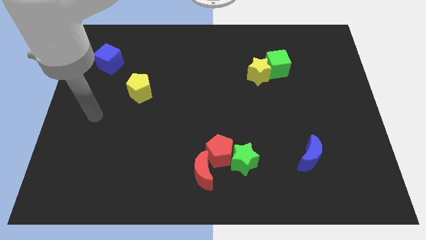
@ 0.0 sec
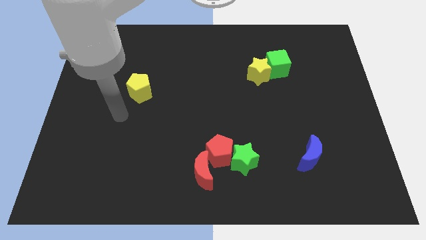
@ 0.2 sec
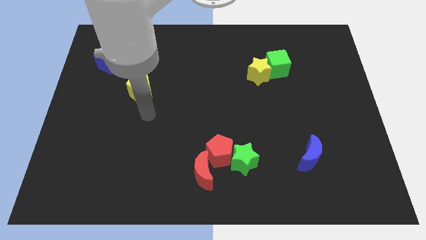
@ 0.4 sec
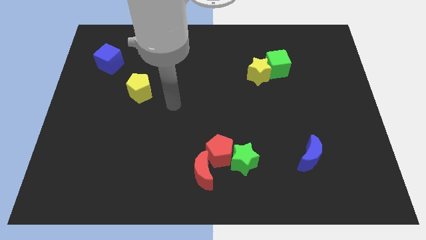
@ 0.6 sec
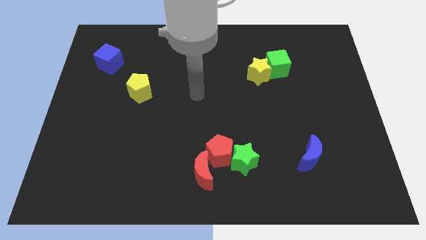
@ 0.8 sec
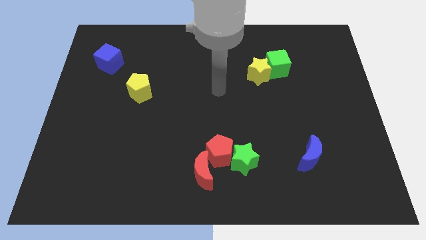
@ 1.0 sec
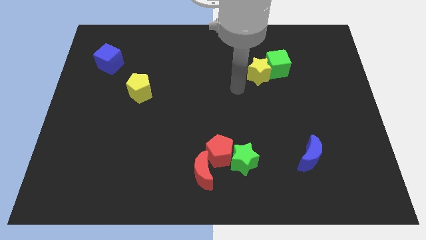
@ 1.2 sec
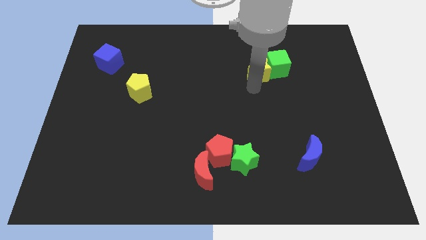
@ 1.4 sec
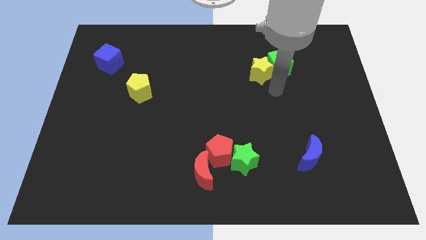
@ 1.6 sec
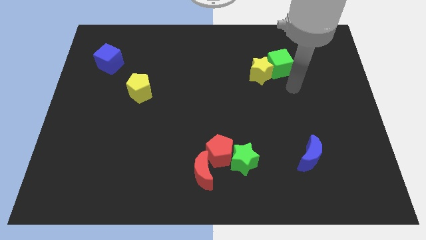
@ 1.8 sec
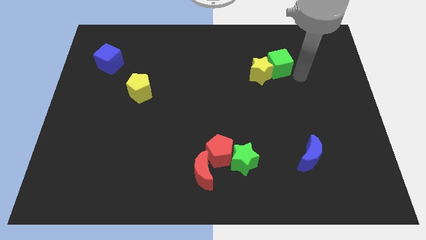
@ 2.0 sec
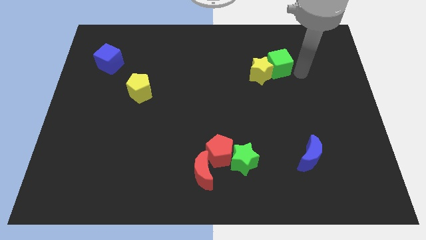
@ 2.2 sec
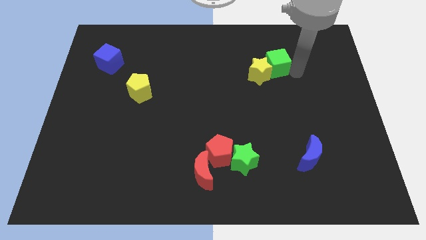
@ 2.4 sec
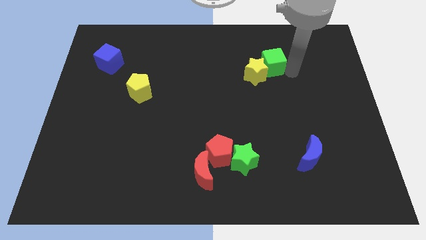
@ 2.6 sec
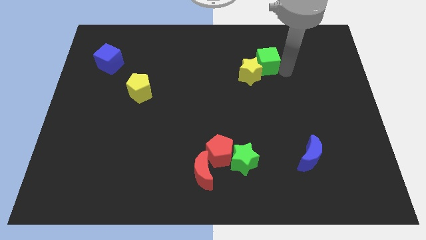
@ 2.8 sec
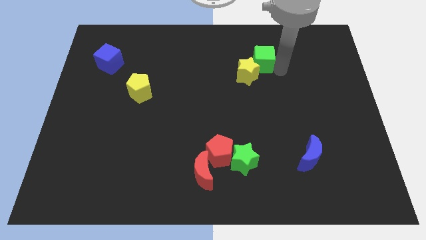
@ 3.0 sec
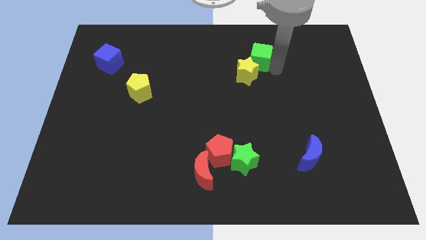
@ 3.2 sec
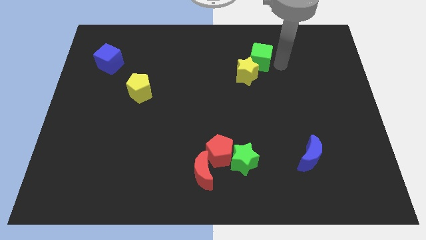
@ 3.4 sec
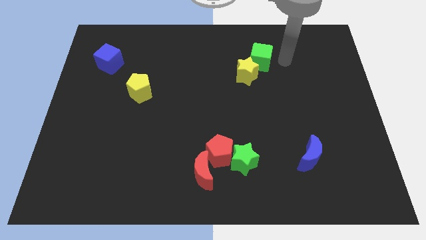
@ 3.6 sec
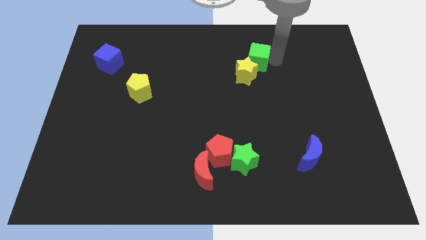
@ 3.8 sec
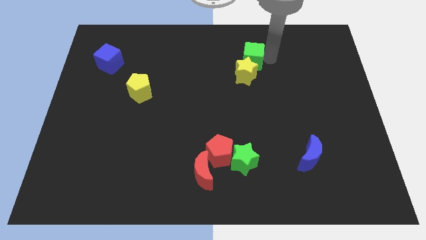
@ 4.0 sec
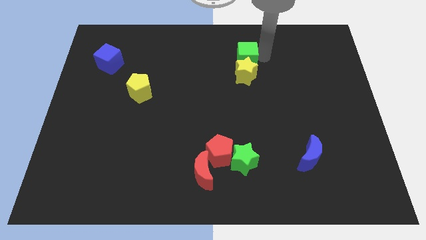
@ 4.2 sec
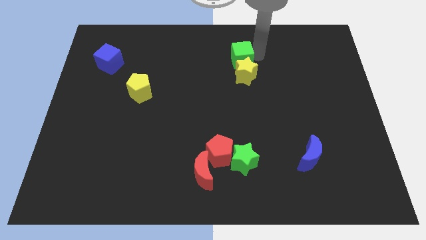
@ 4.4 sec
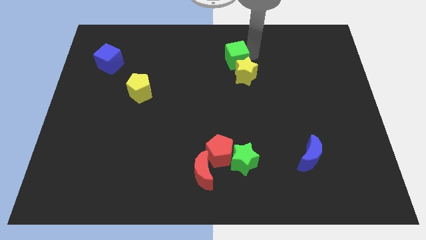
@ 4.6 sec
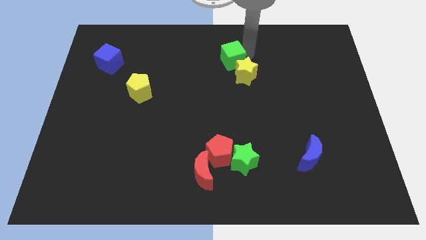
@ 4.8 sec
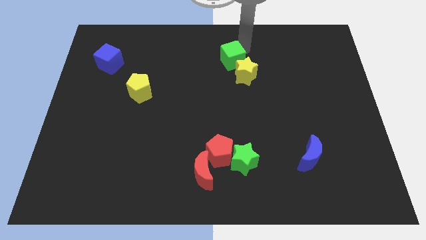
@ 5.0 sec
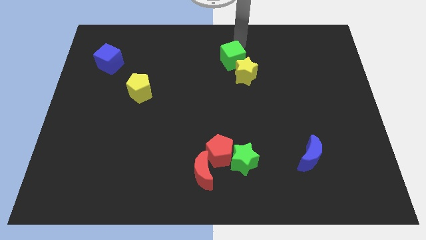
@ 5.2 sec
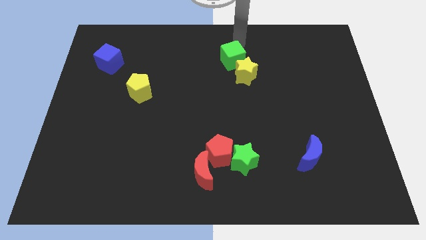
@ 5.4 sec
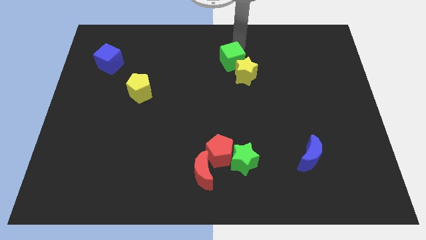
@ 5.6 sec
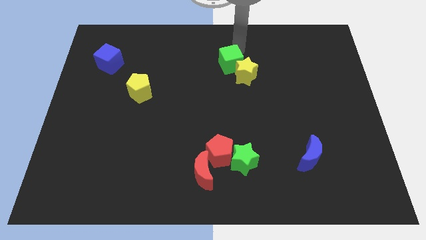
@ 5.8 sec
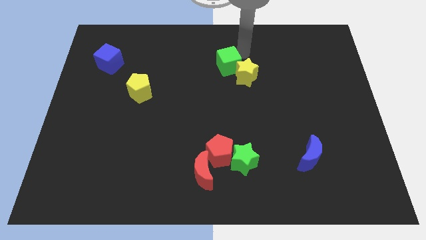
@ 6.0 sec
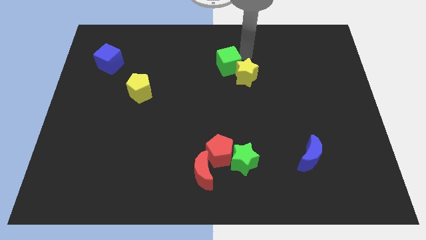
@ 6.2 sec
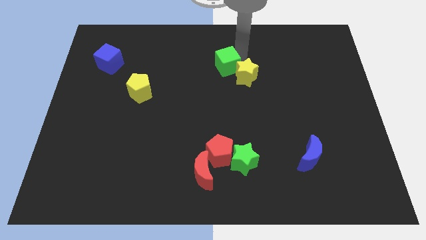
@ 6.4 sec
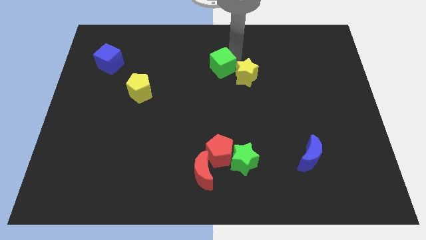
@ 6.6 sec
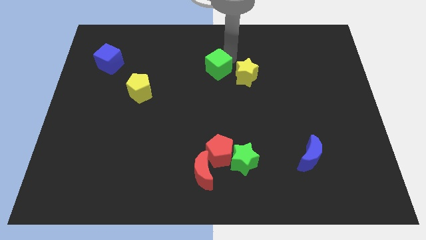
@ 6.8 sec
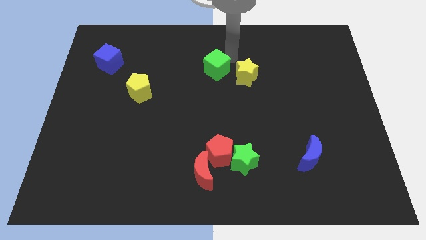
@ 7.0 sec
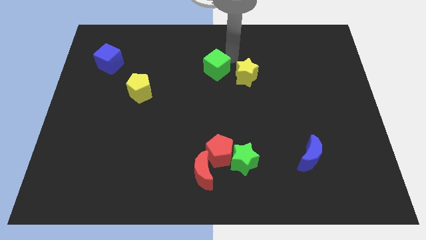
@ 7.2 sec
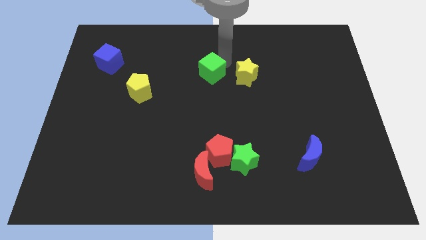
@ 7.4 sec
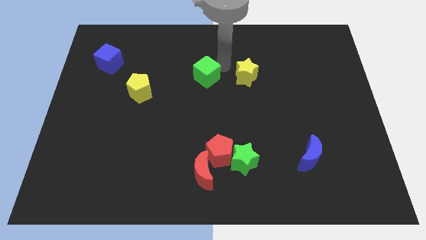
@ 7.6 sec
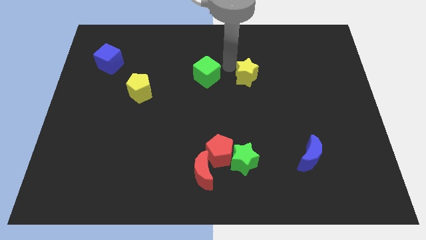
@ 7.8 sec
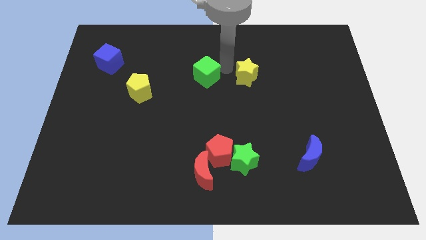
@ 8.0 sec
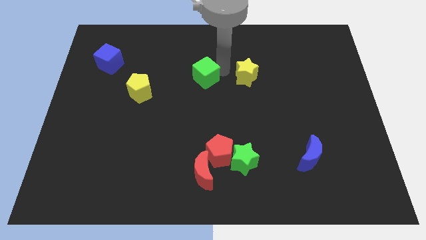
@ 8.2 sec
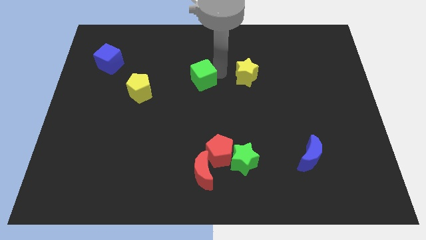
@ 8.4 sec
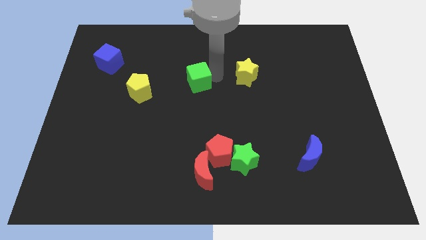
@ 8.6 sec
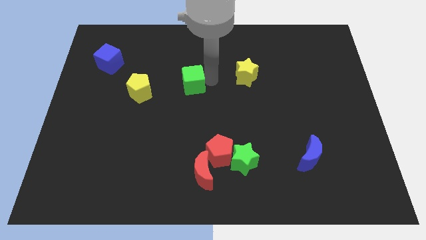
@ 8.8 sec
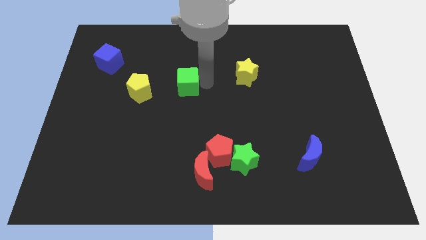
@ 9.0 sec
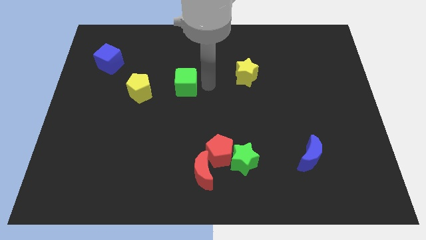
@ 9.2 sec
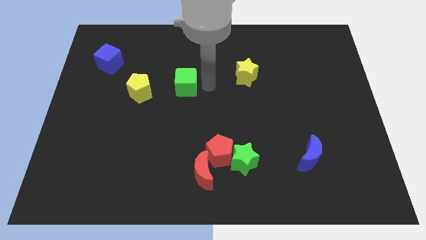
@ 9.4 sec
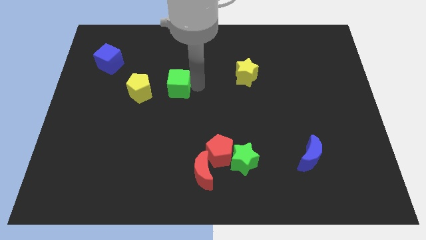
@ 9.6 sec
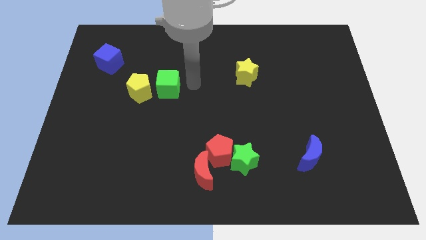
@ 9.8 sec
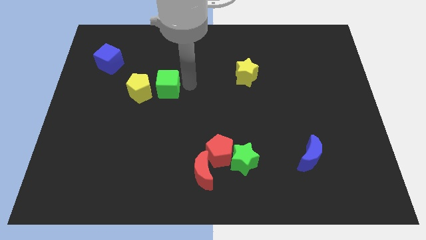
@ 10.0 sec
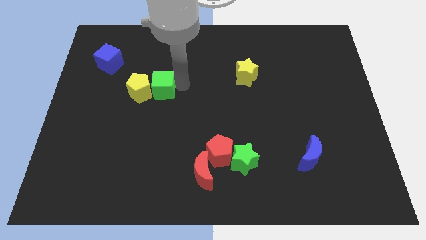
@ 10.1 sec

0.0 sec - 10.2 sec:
move the green cube to the yellow pentagon

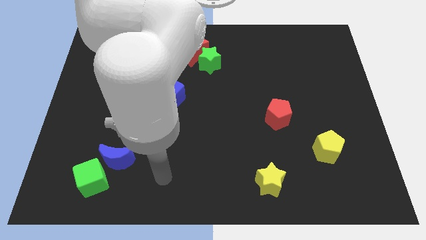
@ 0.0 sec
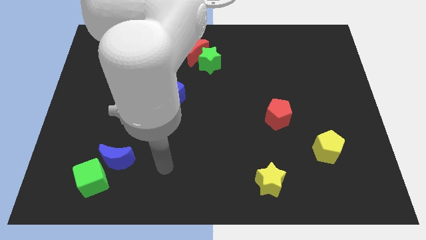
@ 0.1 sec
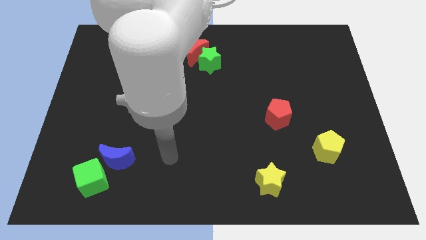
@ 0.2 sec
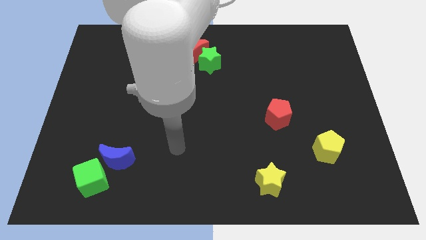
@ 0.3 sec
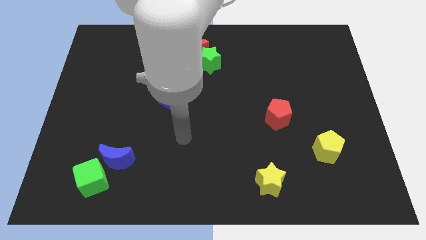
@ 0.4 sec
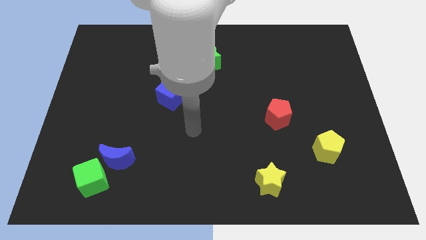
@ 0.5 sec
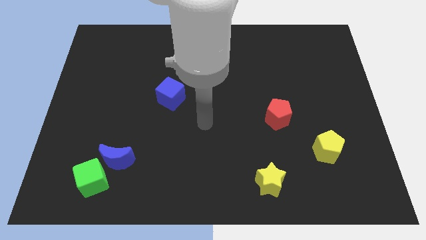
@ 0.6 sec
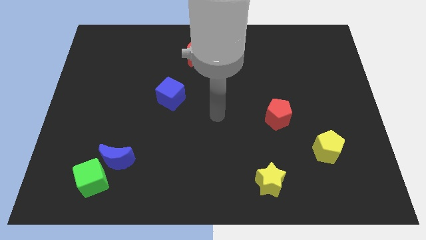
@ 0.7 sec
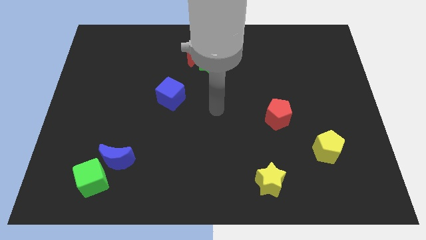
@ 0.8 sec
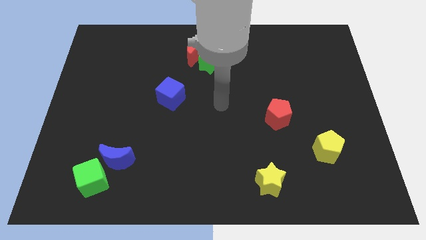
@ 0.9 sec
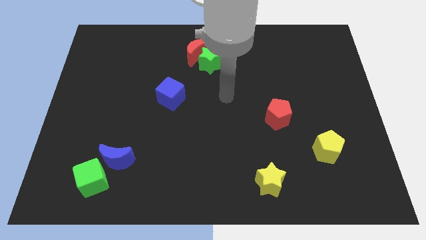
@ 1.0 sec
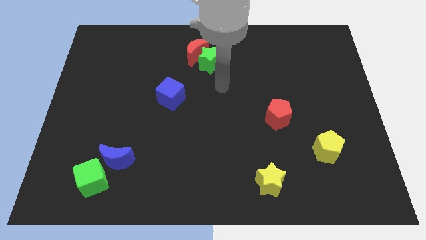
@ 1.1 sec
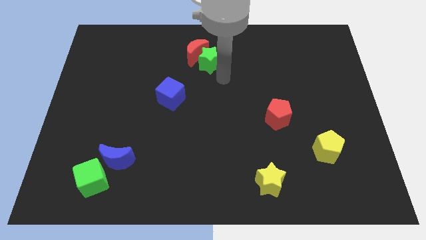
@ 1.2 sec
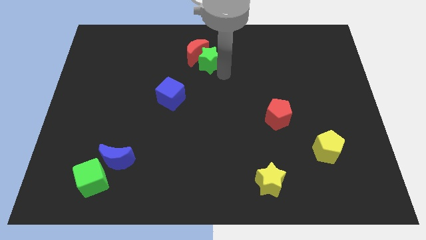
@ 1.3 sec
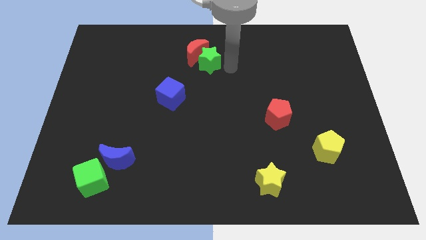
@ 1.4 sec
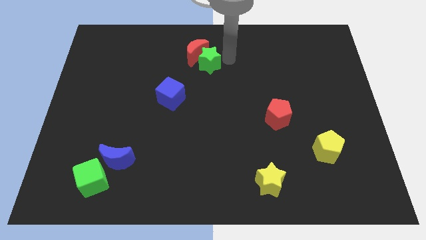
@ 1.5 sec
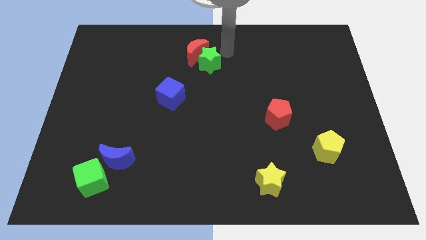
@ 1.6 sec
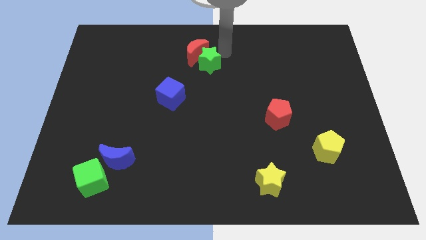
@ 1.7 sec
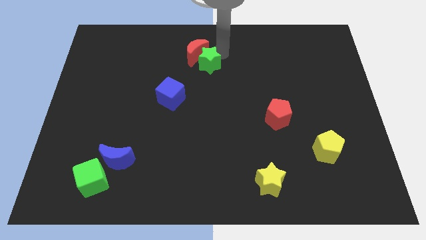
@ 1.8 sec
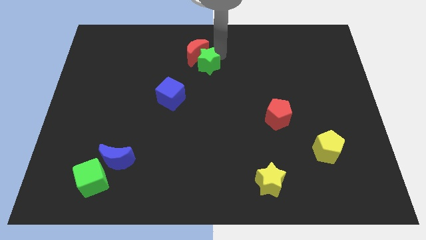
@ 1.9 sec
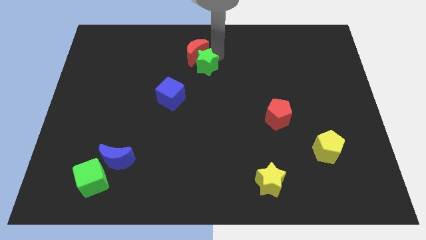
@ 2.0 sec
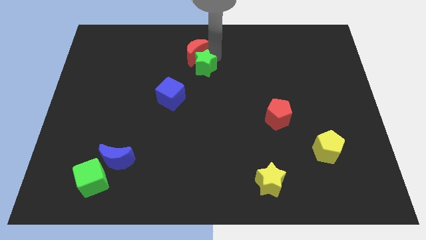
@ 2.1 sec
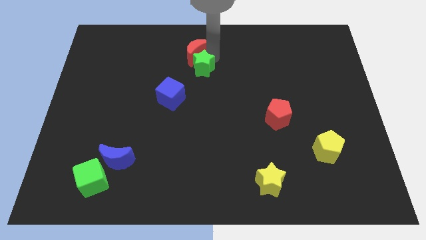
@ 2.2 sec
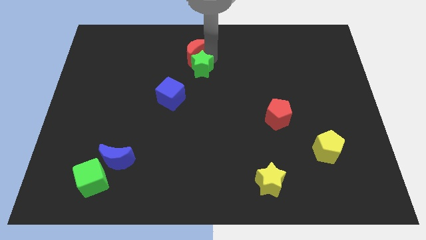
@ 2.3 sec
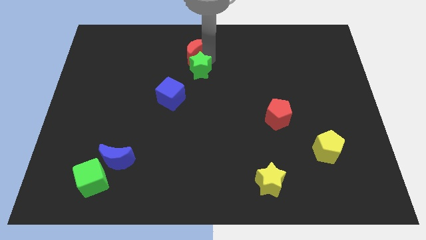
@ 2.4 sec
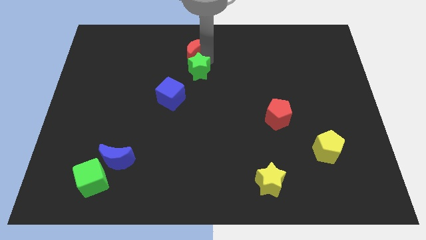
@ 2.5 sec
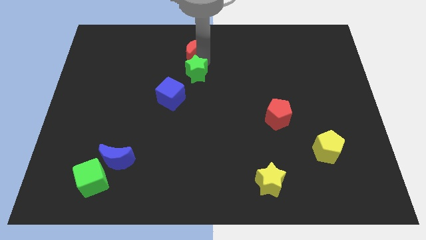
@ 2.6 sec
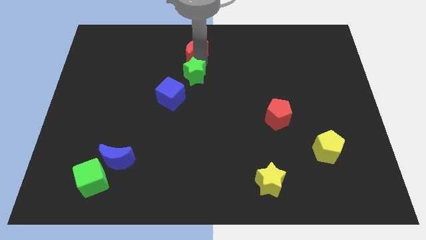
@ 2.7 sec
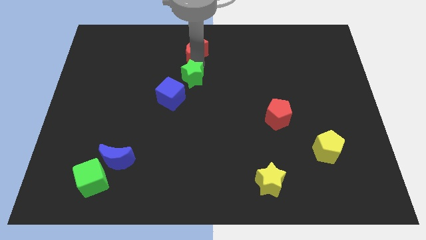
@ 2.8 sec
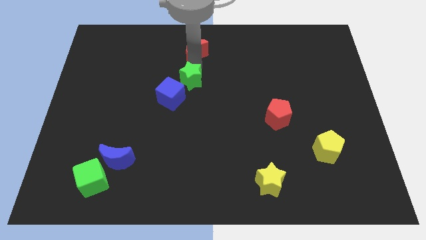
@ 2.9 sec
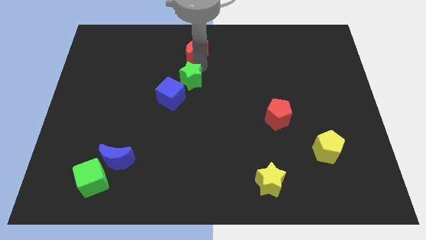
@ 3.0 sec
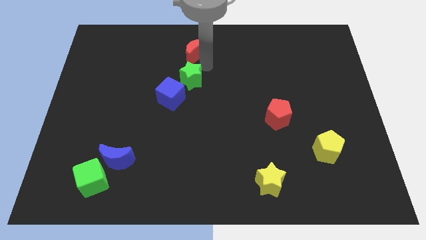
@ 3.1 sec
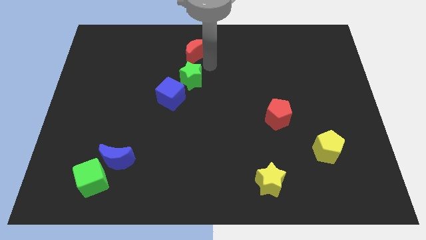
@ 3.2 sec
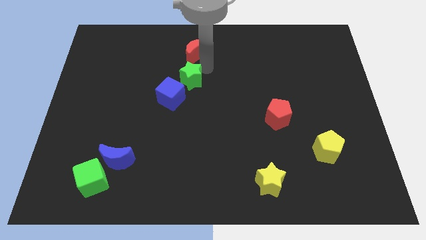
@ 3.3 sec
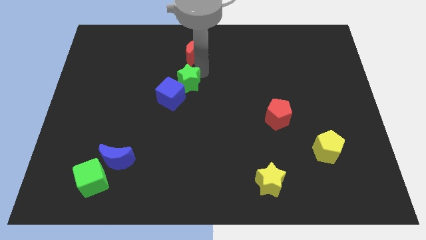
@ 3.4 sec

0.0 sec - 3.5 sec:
slide the green star towards the blue cube
